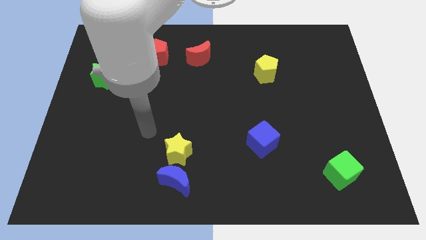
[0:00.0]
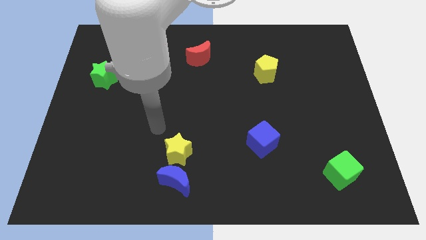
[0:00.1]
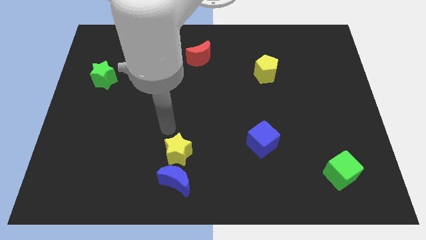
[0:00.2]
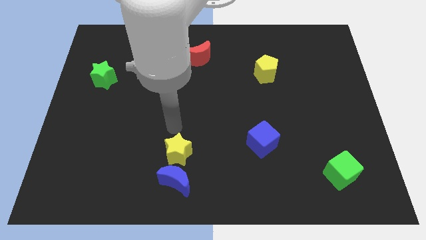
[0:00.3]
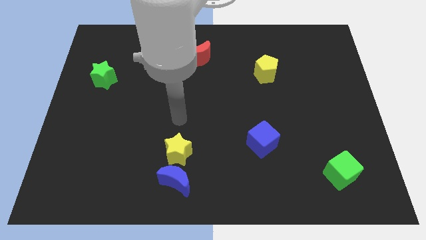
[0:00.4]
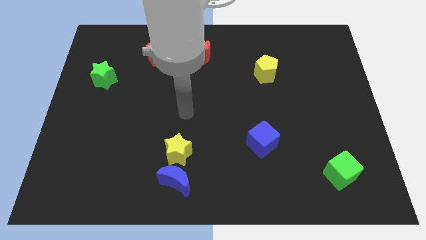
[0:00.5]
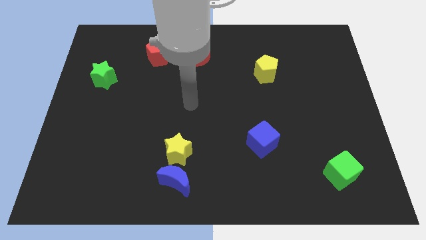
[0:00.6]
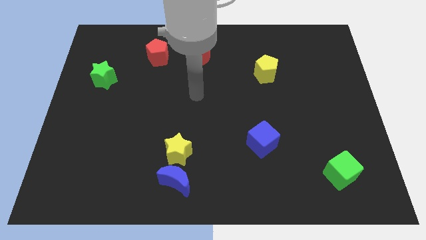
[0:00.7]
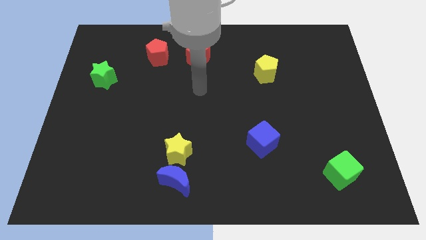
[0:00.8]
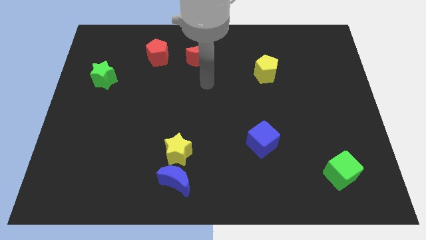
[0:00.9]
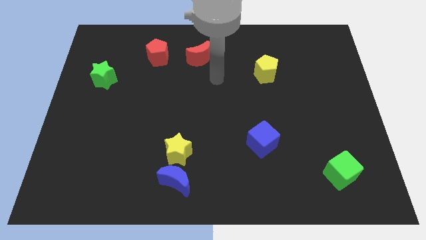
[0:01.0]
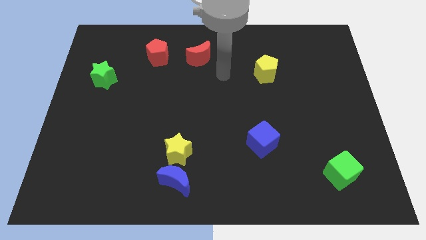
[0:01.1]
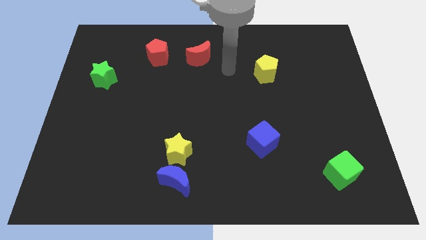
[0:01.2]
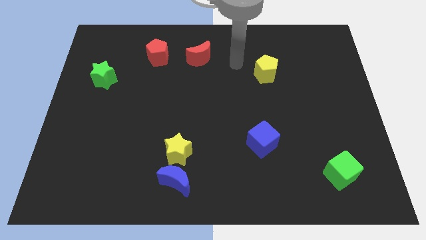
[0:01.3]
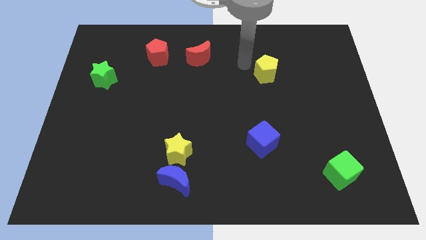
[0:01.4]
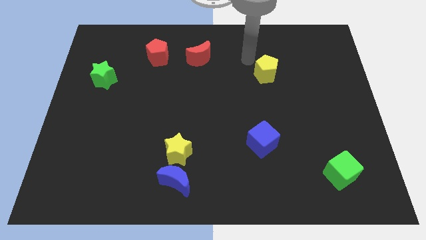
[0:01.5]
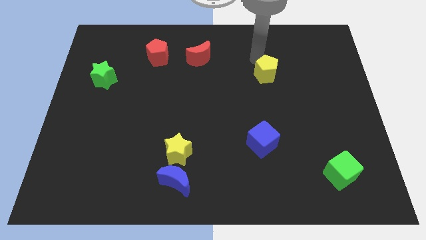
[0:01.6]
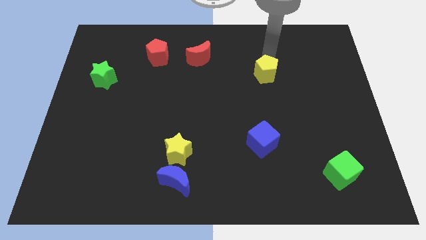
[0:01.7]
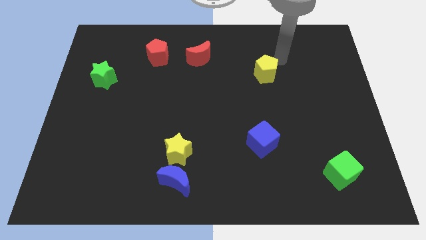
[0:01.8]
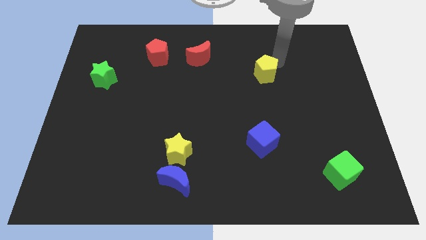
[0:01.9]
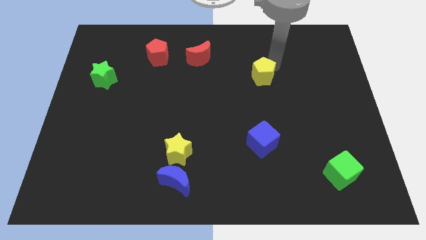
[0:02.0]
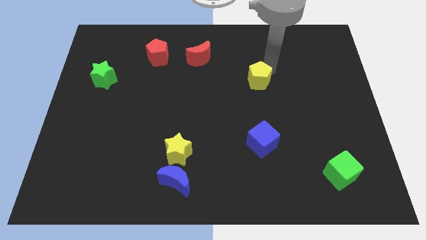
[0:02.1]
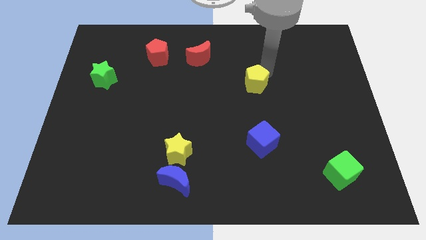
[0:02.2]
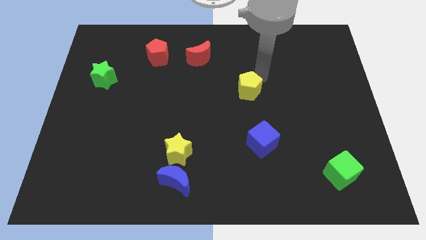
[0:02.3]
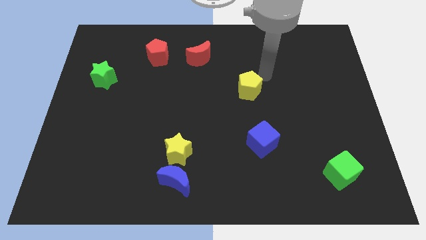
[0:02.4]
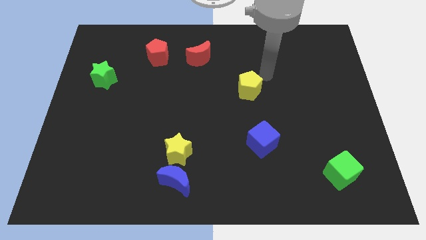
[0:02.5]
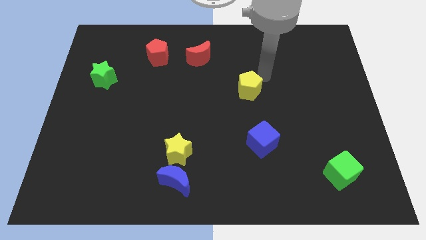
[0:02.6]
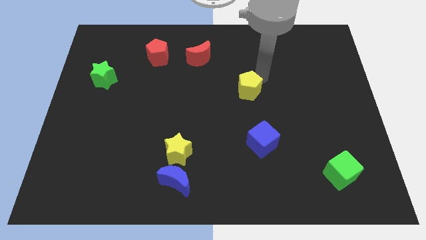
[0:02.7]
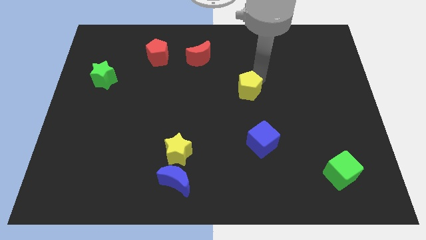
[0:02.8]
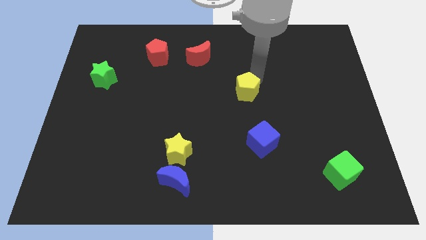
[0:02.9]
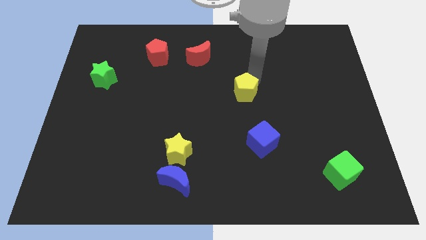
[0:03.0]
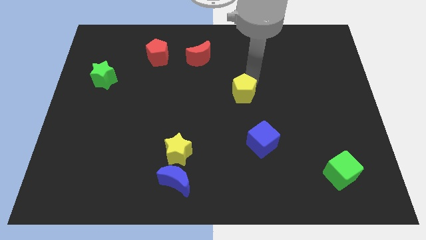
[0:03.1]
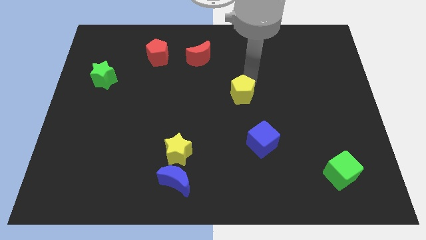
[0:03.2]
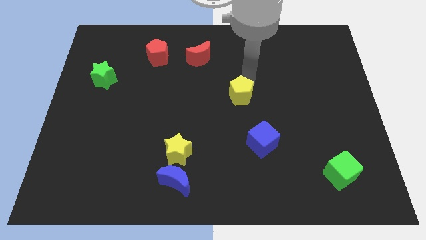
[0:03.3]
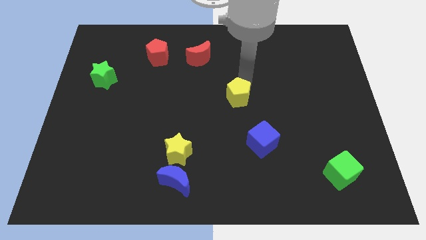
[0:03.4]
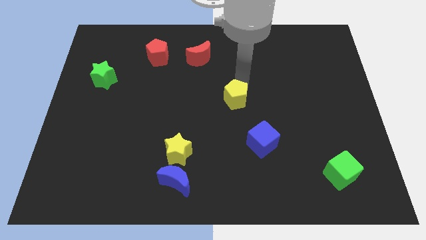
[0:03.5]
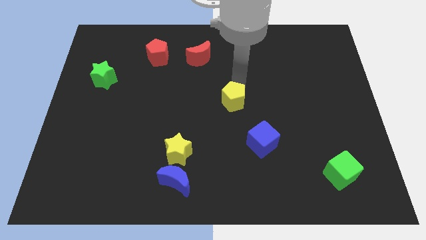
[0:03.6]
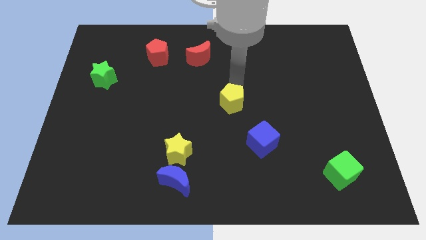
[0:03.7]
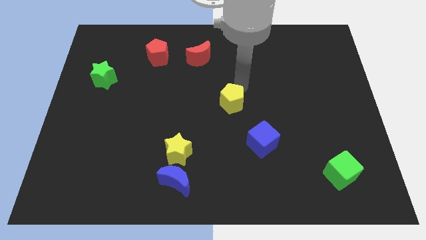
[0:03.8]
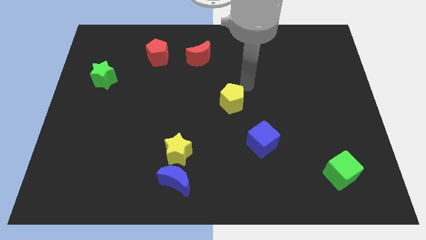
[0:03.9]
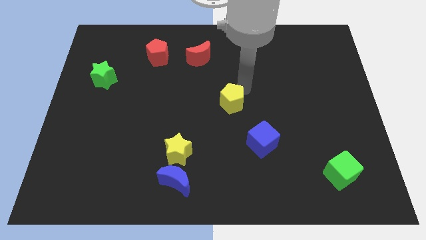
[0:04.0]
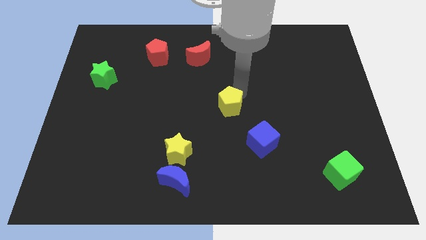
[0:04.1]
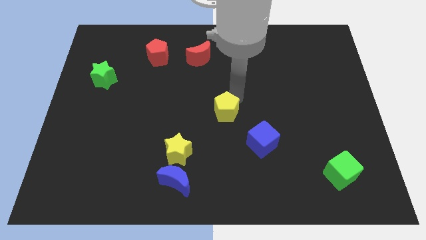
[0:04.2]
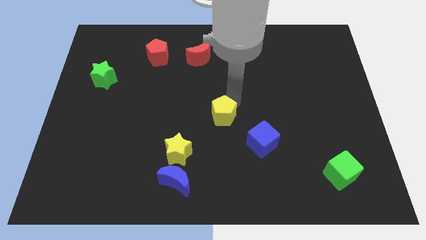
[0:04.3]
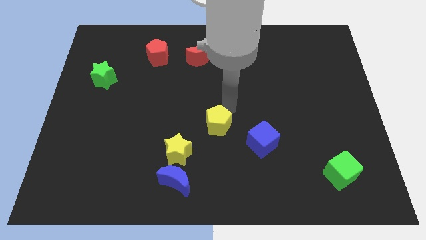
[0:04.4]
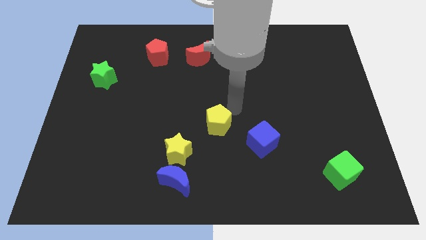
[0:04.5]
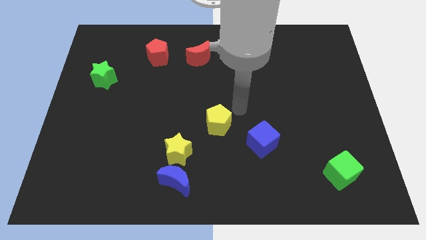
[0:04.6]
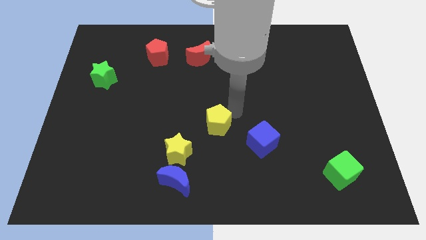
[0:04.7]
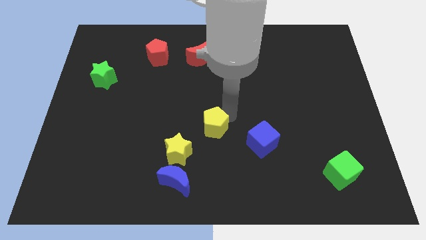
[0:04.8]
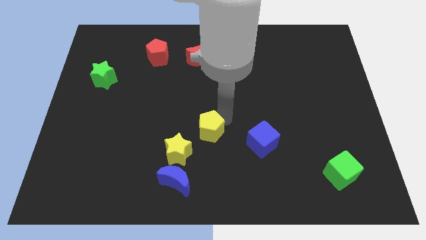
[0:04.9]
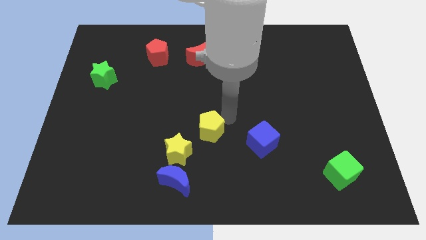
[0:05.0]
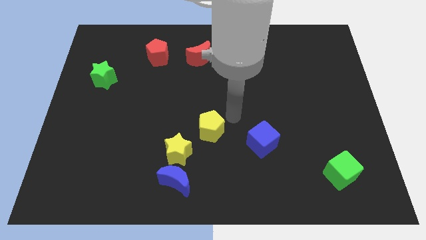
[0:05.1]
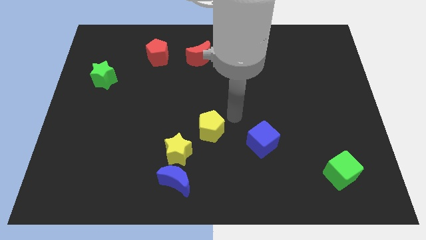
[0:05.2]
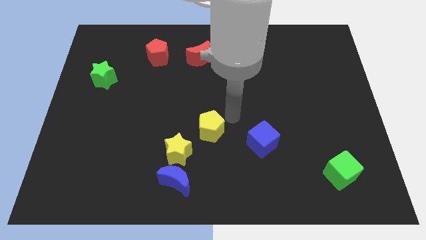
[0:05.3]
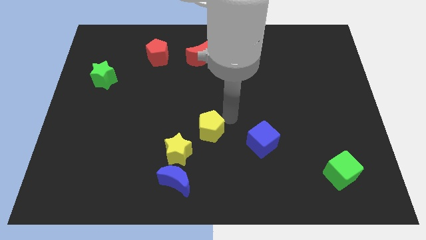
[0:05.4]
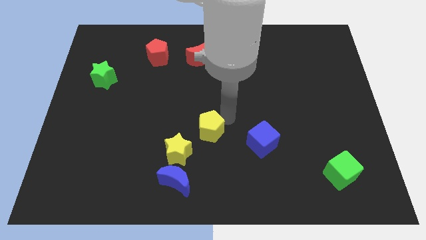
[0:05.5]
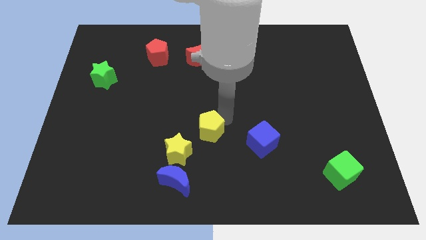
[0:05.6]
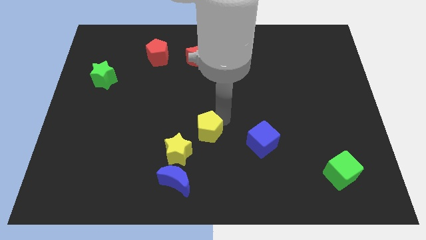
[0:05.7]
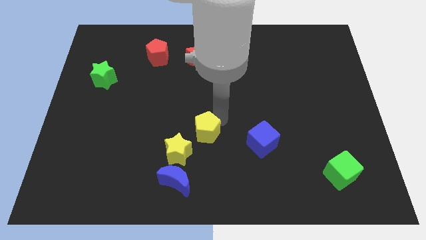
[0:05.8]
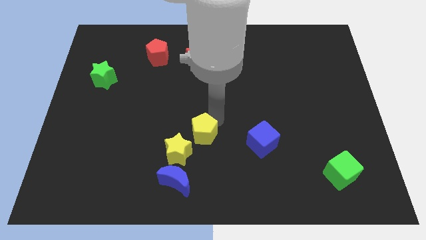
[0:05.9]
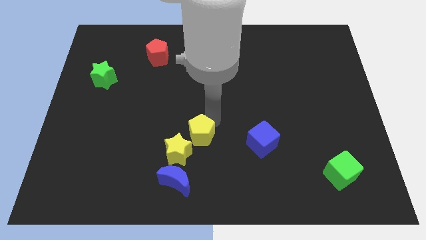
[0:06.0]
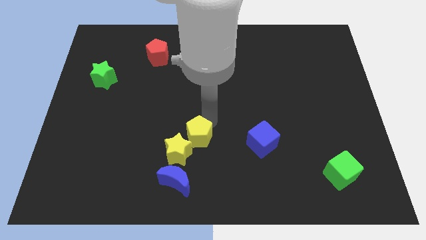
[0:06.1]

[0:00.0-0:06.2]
put the yellow pentagon next to the yellow star

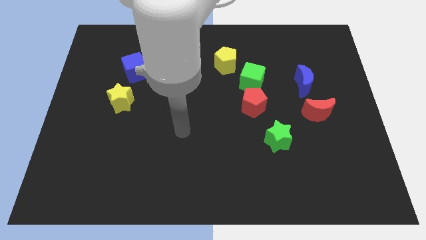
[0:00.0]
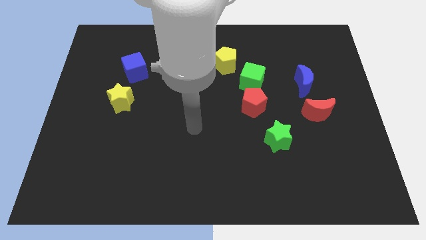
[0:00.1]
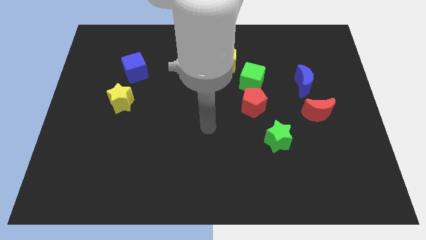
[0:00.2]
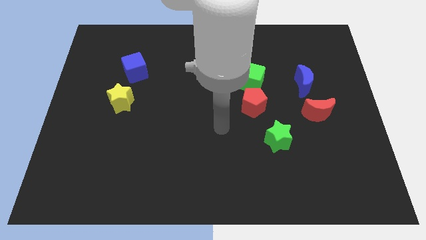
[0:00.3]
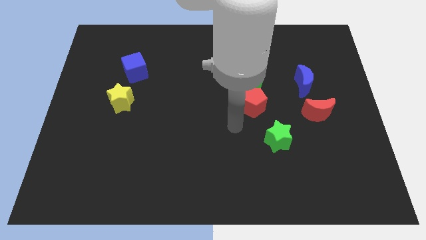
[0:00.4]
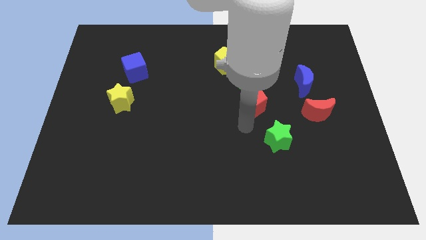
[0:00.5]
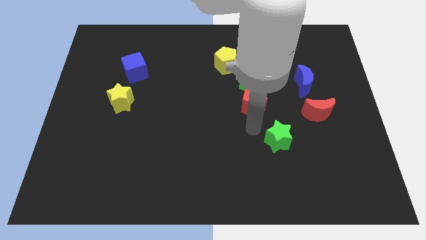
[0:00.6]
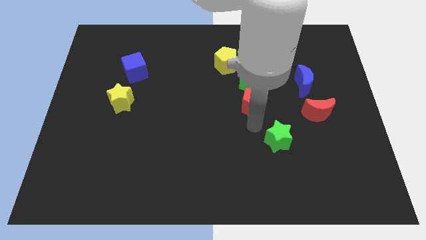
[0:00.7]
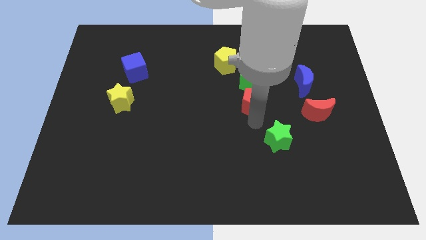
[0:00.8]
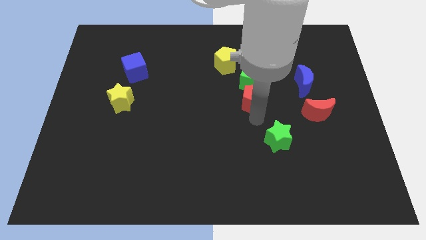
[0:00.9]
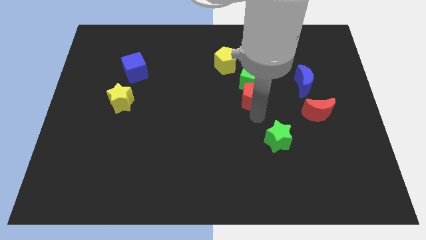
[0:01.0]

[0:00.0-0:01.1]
push the red pentagon to the green cube

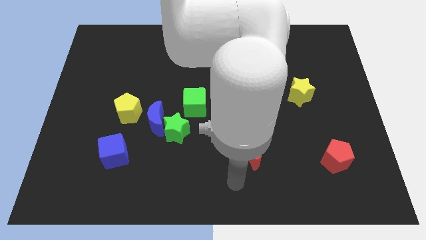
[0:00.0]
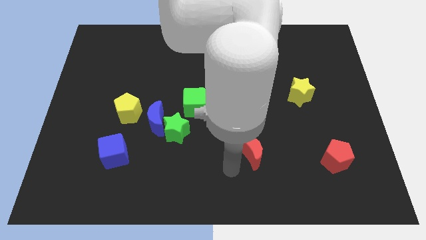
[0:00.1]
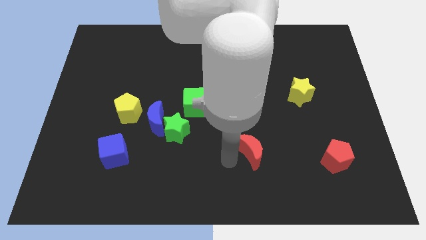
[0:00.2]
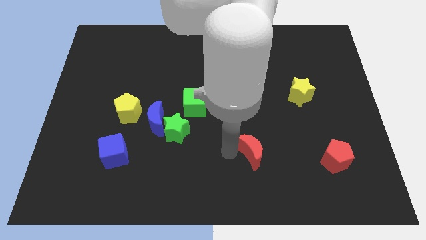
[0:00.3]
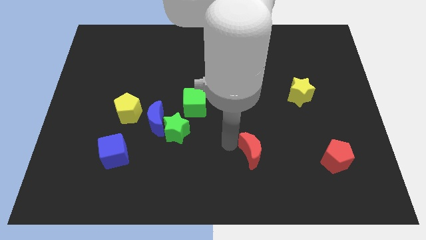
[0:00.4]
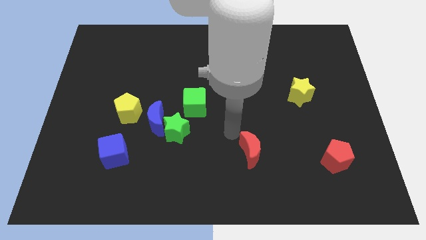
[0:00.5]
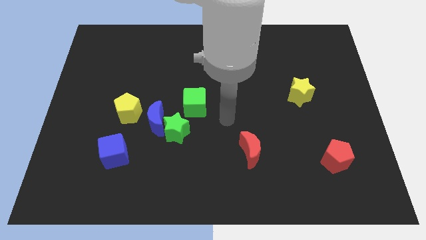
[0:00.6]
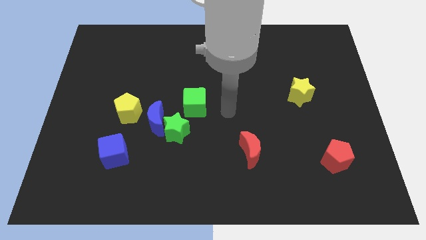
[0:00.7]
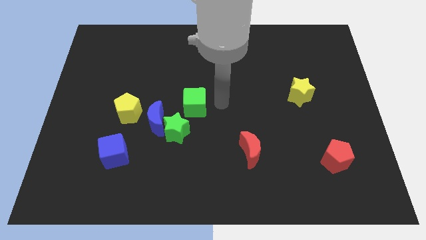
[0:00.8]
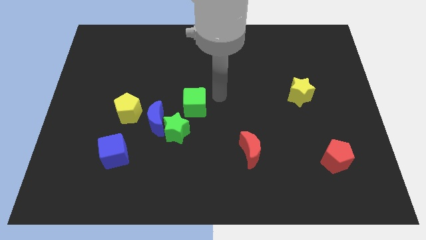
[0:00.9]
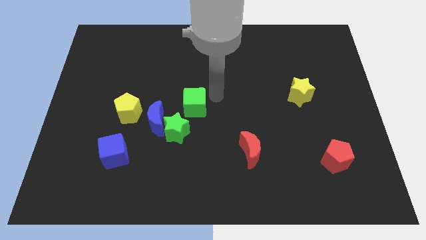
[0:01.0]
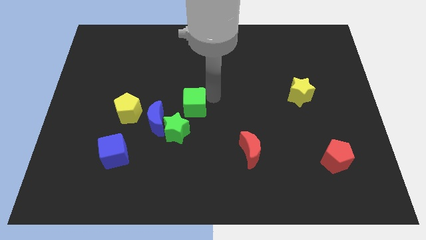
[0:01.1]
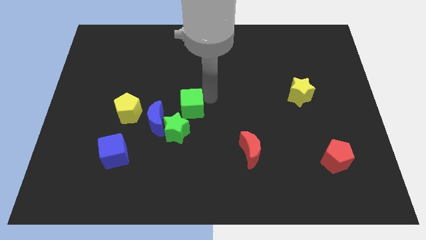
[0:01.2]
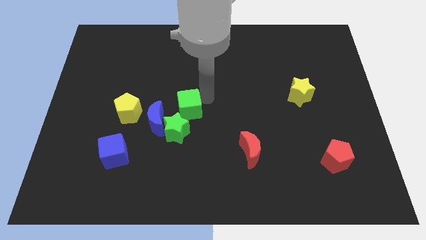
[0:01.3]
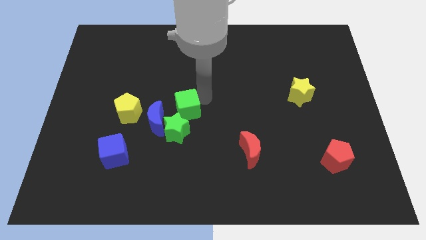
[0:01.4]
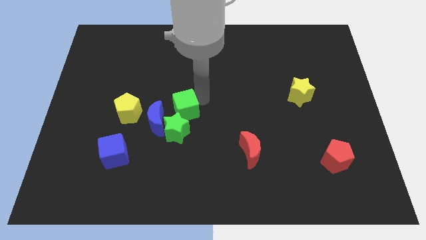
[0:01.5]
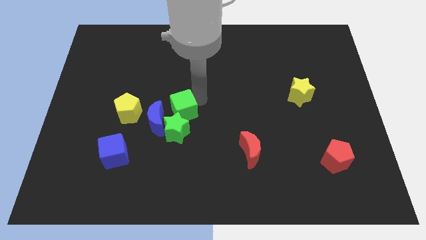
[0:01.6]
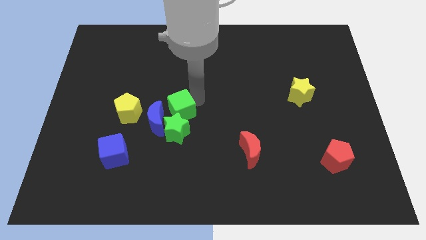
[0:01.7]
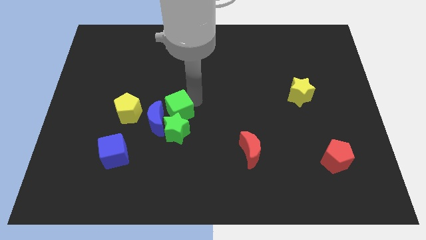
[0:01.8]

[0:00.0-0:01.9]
slide the green cube to the blue moon
